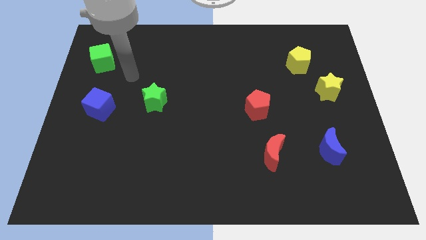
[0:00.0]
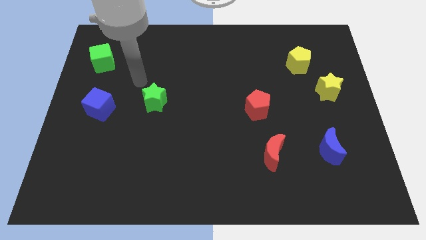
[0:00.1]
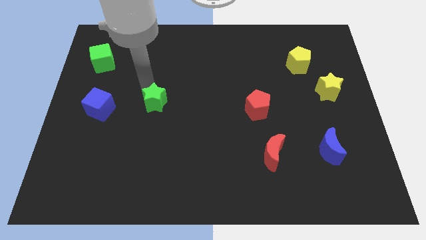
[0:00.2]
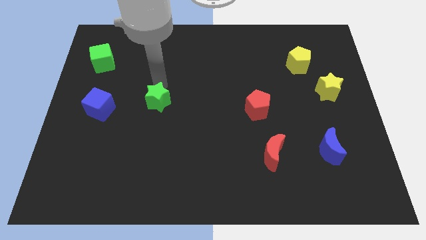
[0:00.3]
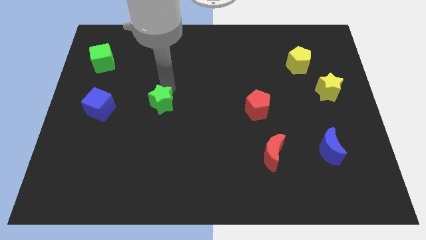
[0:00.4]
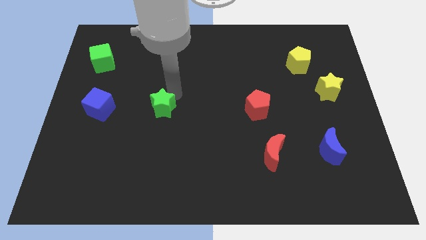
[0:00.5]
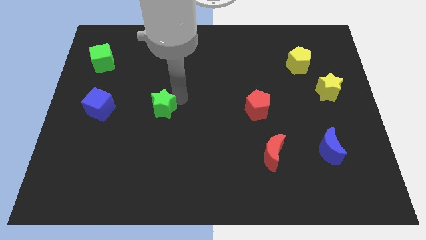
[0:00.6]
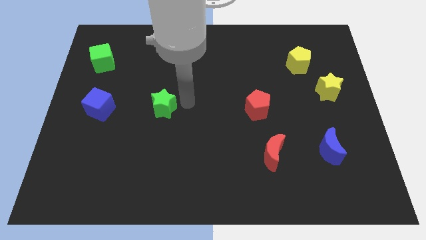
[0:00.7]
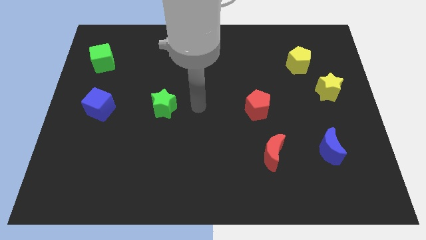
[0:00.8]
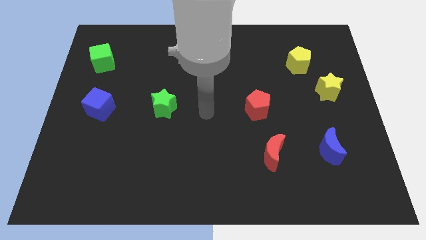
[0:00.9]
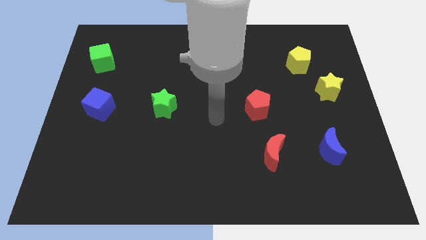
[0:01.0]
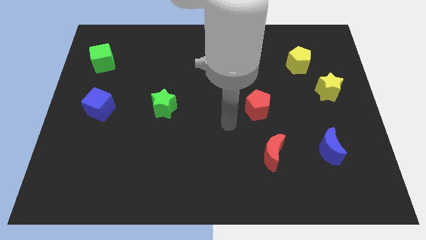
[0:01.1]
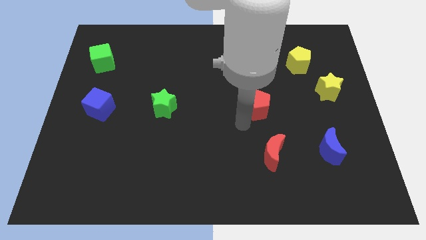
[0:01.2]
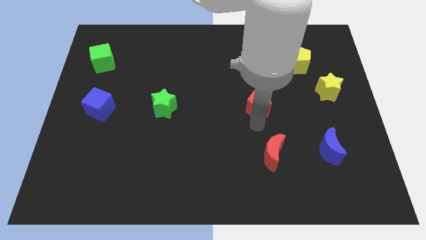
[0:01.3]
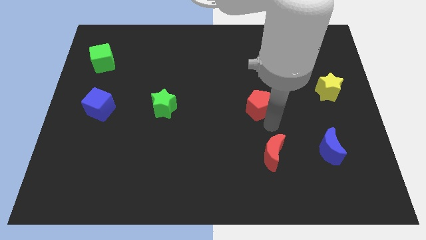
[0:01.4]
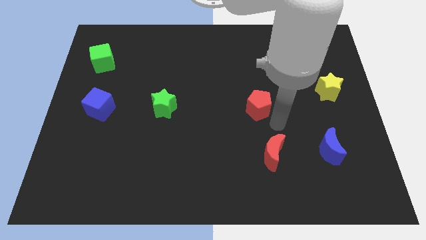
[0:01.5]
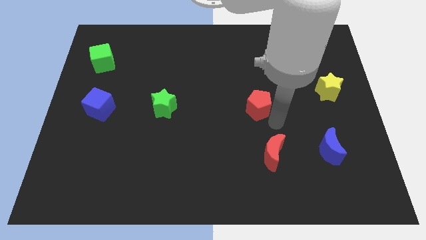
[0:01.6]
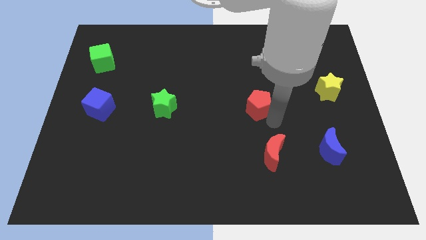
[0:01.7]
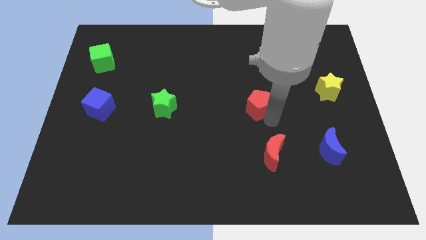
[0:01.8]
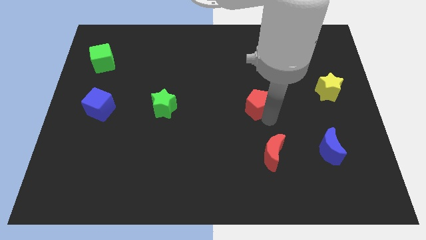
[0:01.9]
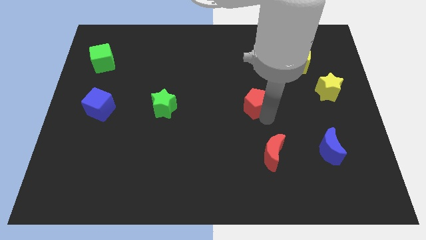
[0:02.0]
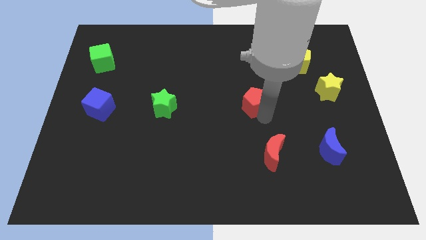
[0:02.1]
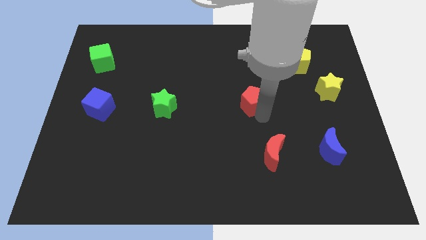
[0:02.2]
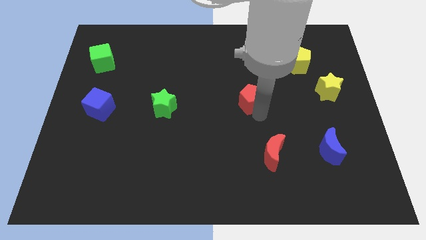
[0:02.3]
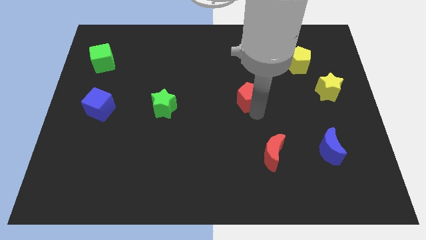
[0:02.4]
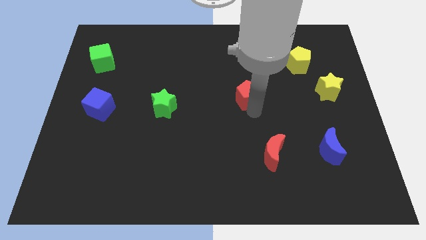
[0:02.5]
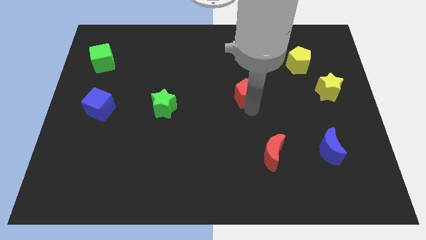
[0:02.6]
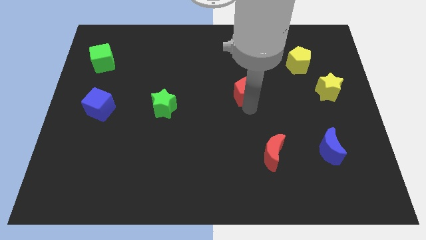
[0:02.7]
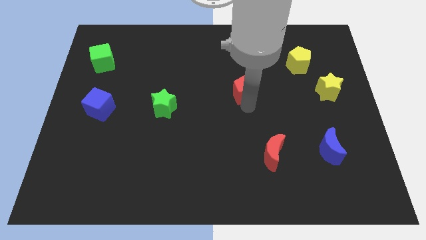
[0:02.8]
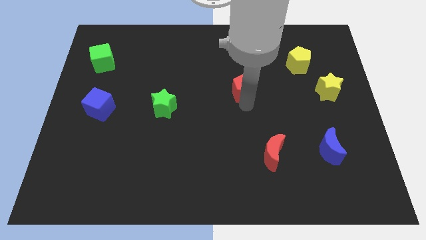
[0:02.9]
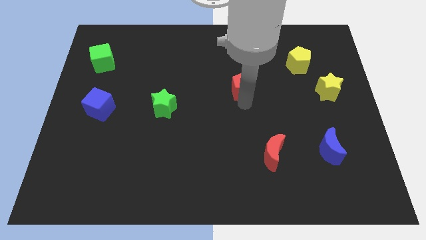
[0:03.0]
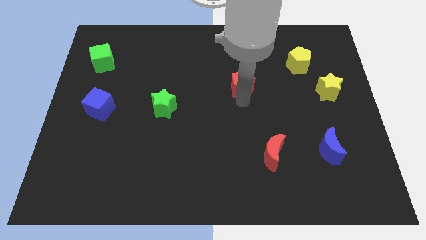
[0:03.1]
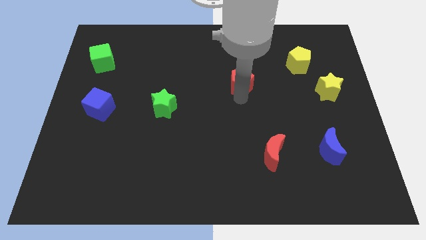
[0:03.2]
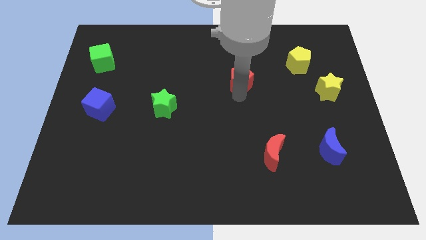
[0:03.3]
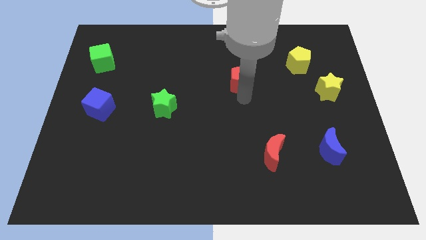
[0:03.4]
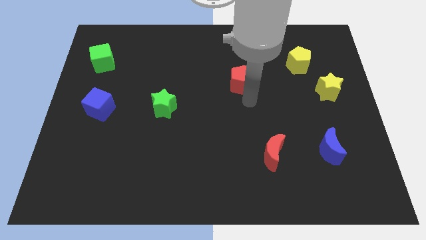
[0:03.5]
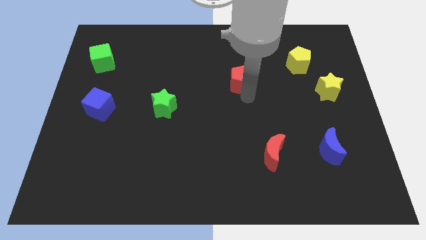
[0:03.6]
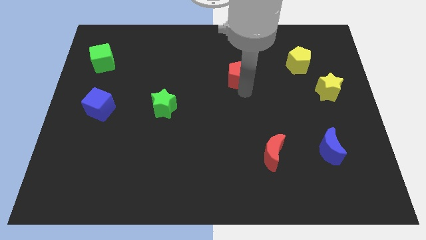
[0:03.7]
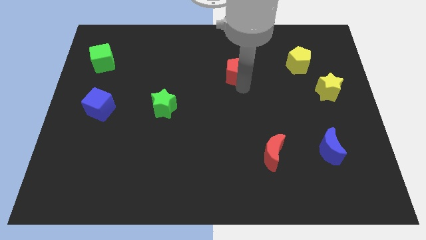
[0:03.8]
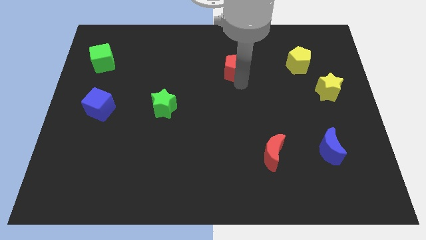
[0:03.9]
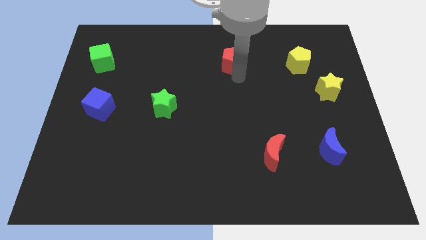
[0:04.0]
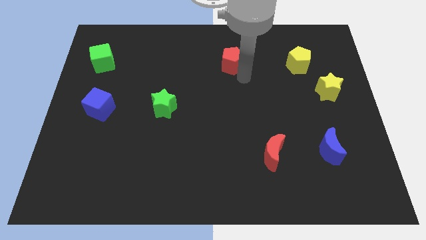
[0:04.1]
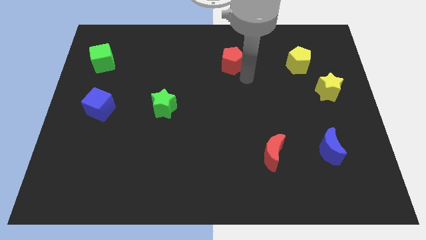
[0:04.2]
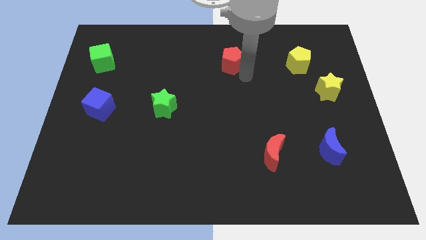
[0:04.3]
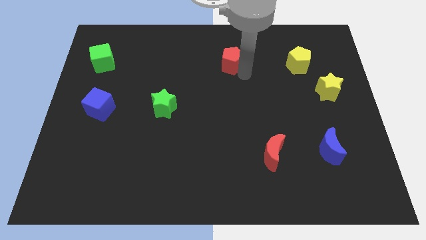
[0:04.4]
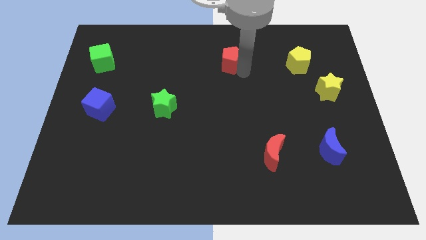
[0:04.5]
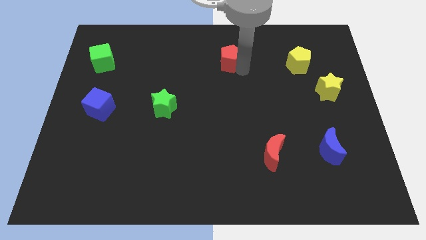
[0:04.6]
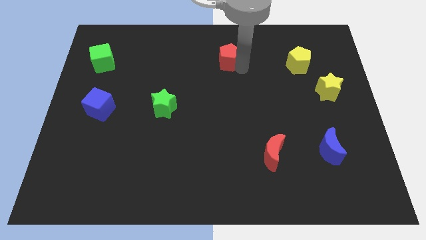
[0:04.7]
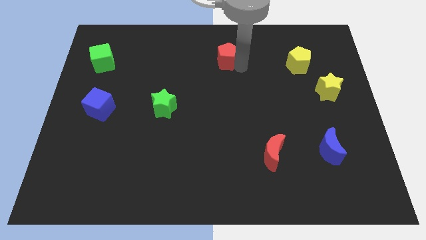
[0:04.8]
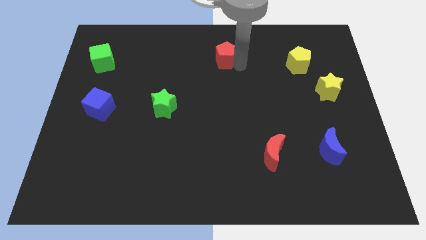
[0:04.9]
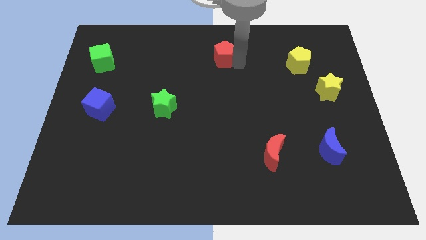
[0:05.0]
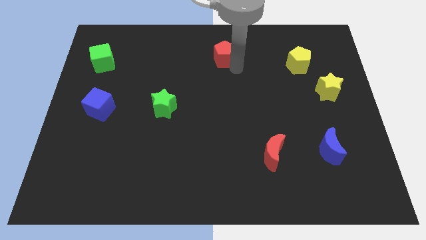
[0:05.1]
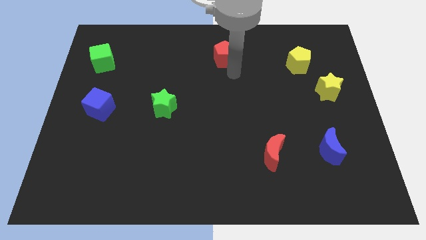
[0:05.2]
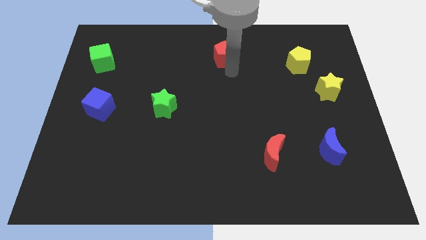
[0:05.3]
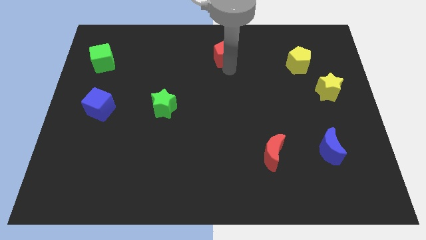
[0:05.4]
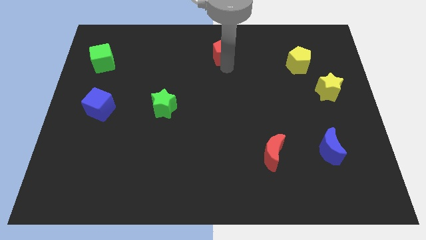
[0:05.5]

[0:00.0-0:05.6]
move the red pentagon to the towards your base
